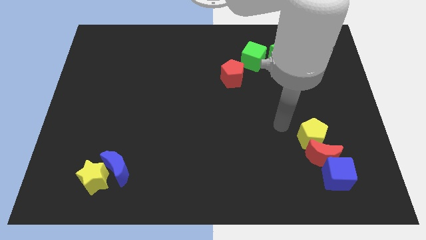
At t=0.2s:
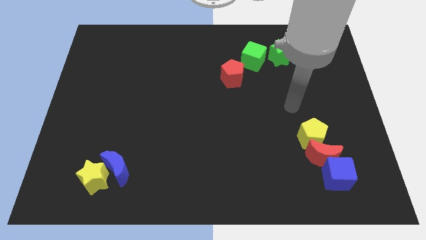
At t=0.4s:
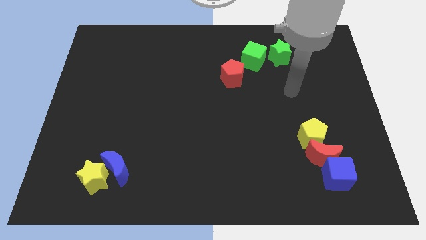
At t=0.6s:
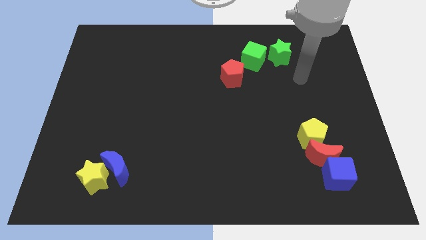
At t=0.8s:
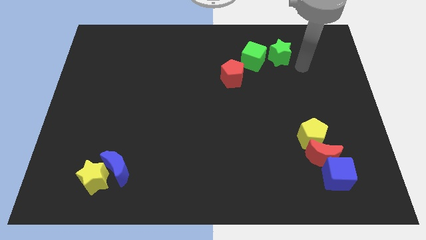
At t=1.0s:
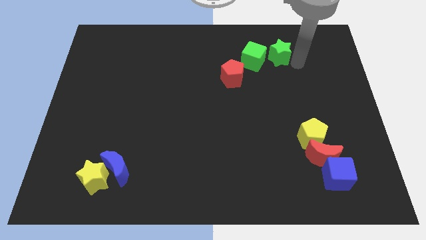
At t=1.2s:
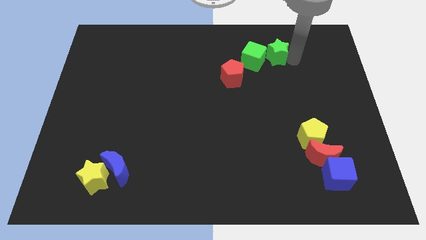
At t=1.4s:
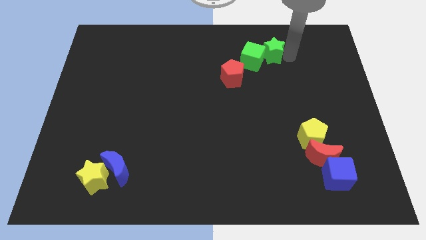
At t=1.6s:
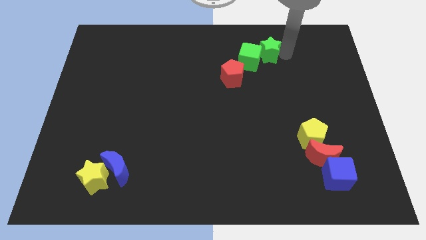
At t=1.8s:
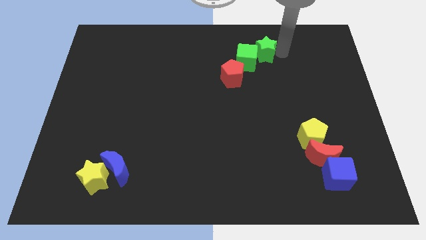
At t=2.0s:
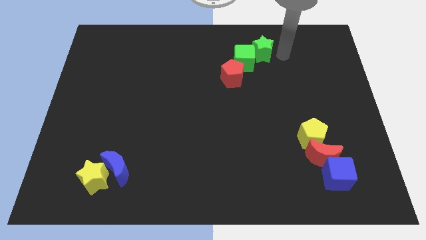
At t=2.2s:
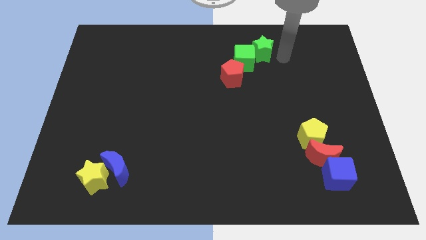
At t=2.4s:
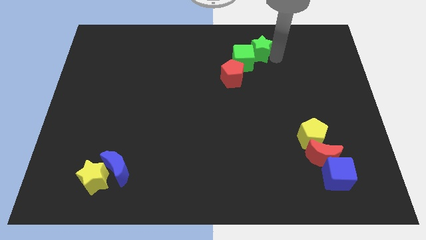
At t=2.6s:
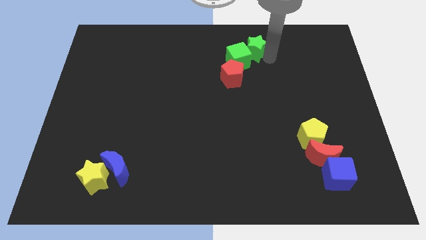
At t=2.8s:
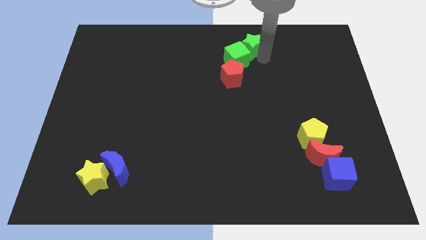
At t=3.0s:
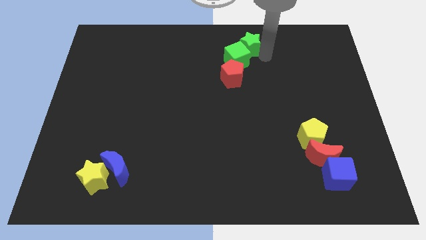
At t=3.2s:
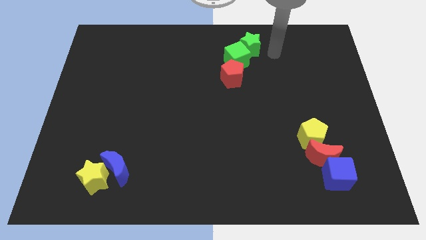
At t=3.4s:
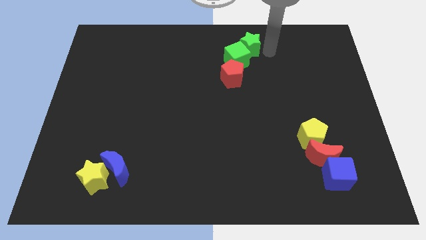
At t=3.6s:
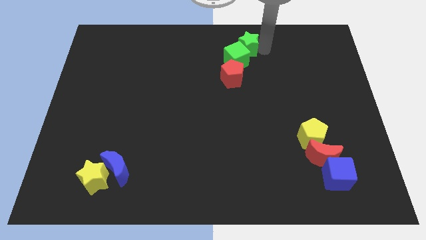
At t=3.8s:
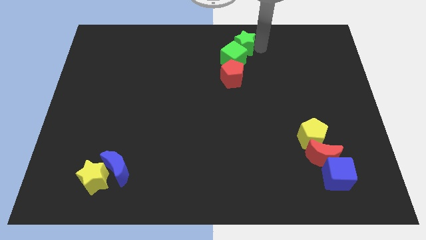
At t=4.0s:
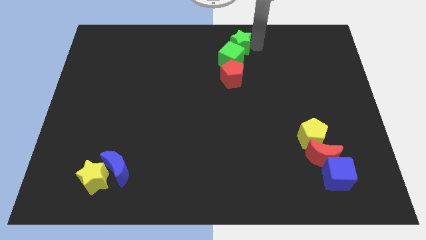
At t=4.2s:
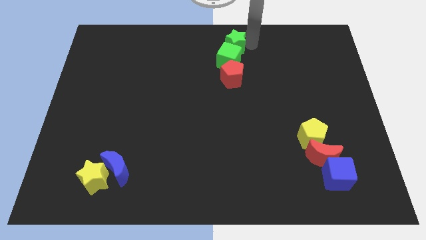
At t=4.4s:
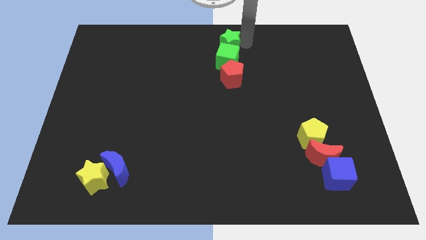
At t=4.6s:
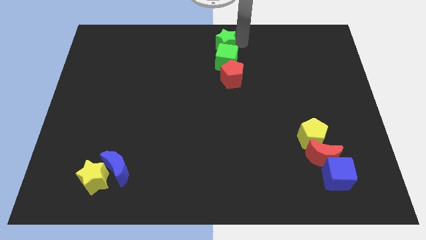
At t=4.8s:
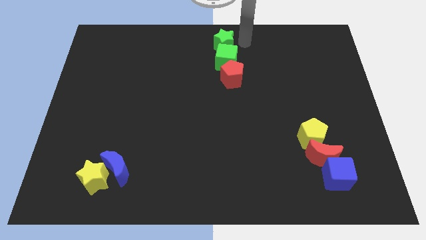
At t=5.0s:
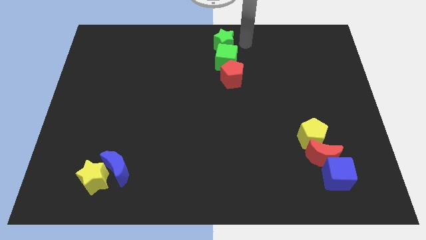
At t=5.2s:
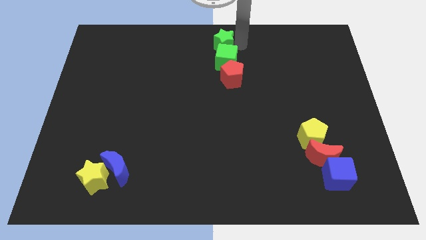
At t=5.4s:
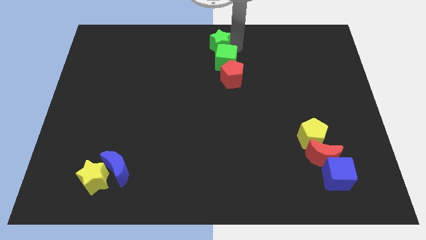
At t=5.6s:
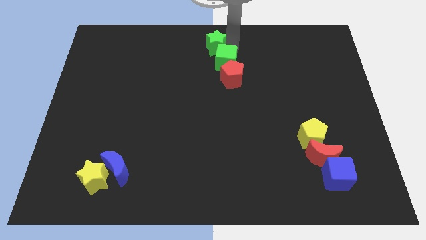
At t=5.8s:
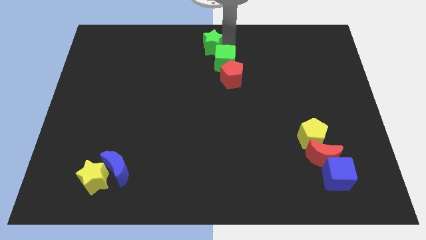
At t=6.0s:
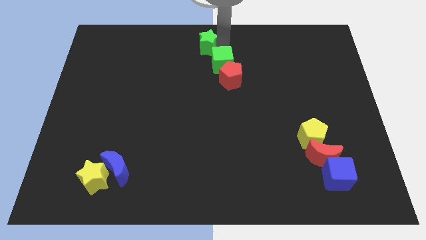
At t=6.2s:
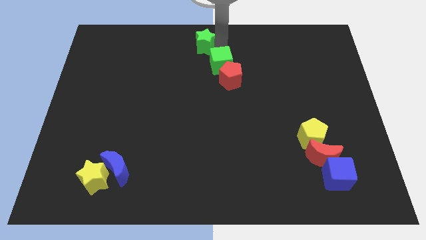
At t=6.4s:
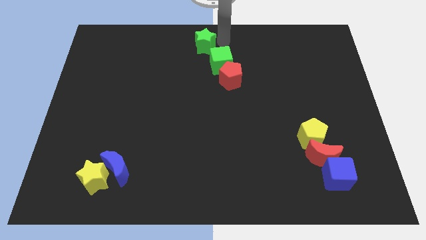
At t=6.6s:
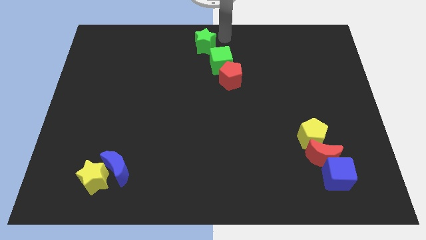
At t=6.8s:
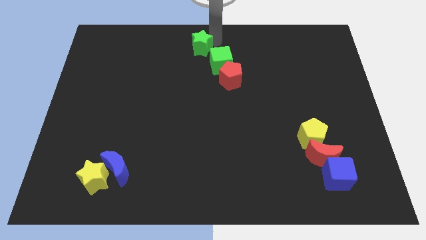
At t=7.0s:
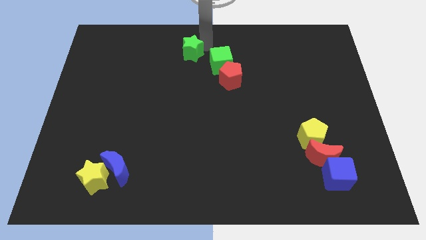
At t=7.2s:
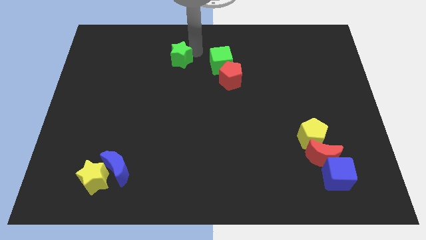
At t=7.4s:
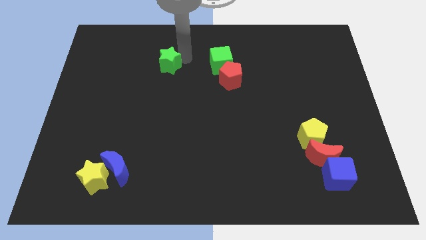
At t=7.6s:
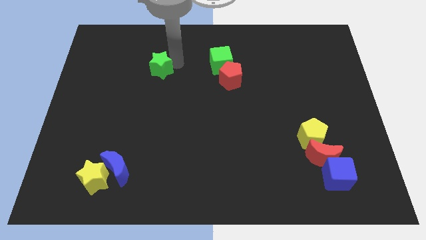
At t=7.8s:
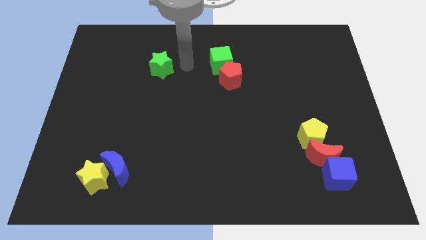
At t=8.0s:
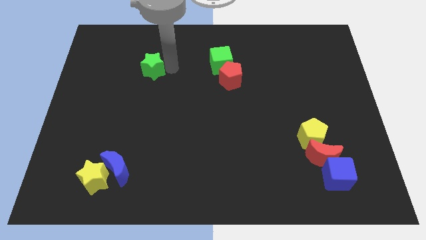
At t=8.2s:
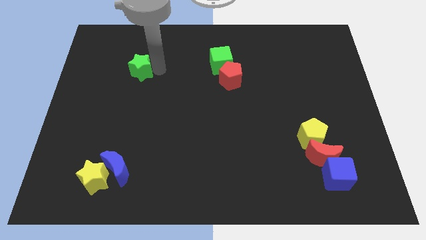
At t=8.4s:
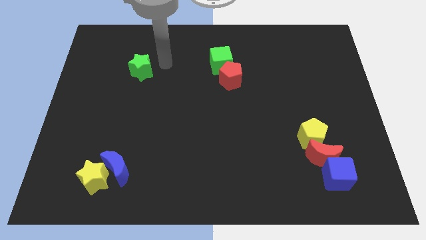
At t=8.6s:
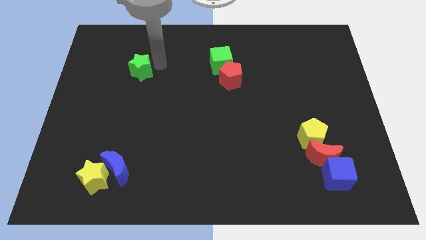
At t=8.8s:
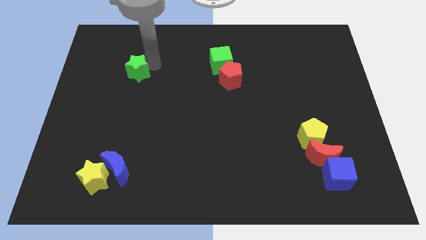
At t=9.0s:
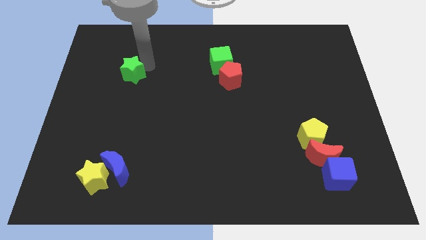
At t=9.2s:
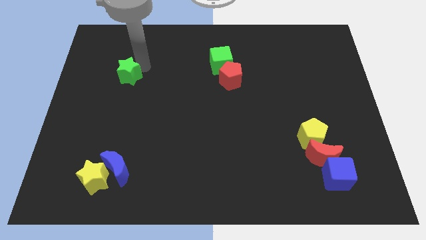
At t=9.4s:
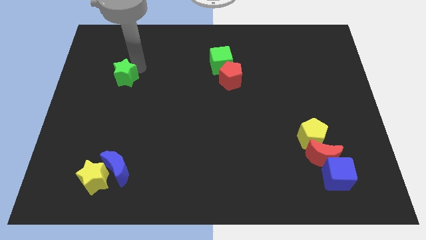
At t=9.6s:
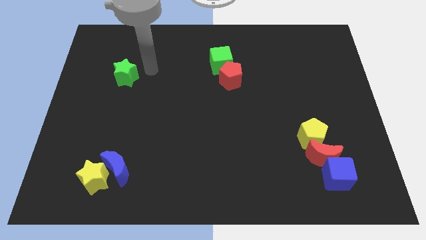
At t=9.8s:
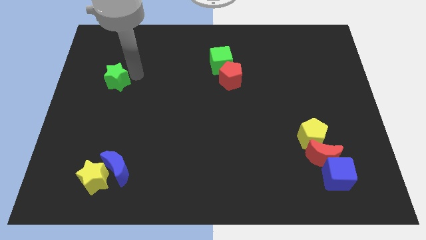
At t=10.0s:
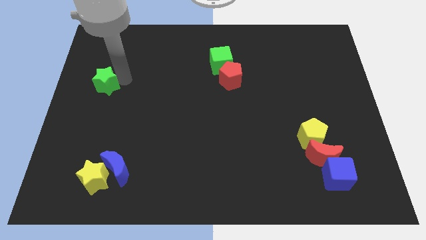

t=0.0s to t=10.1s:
put the green star to the left side

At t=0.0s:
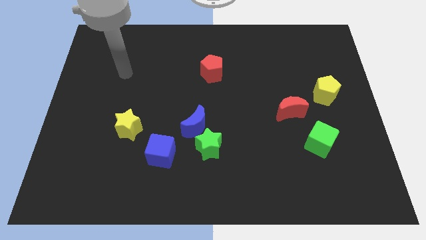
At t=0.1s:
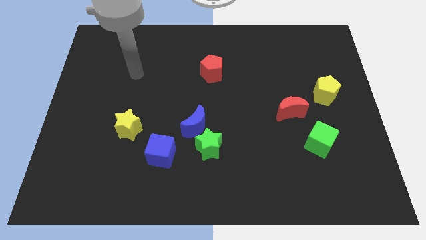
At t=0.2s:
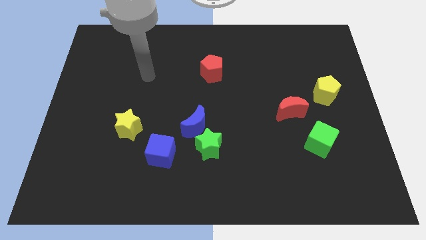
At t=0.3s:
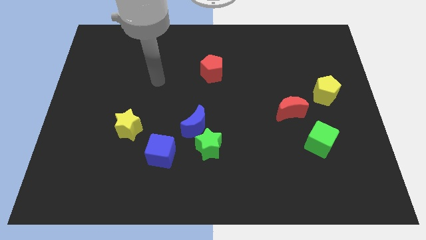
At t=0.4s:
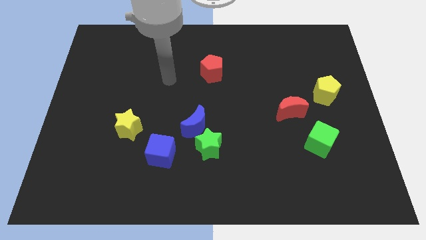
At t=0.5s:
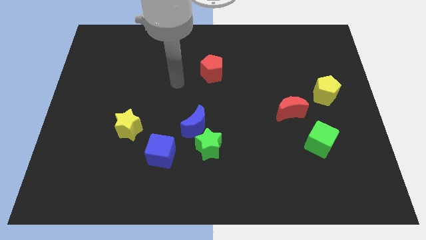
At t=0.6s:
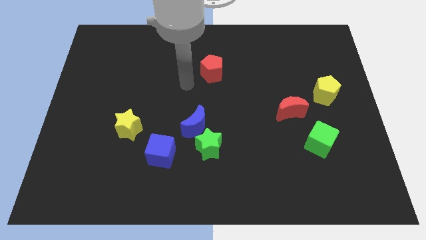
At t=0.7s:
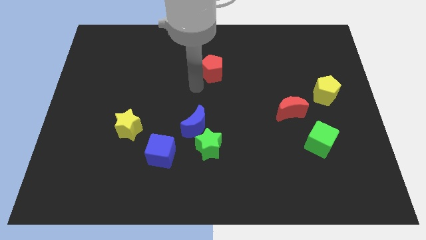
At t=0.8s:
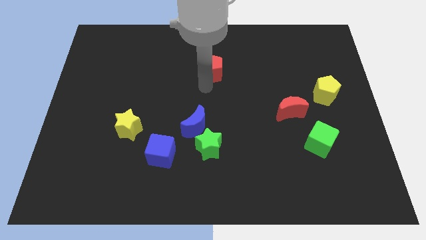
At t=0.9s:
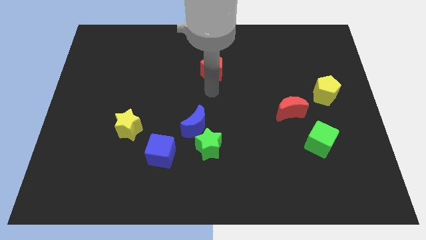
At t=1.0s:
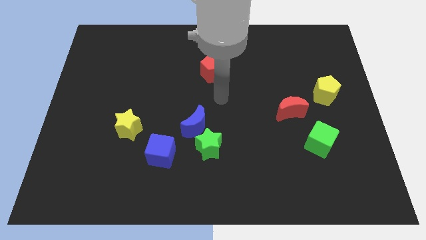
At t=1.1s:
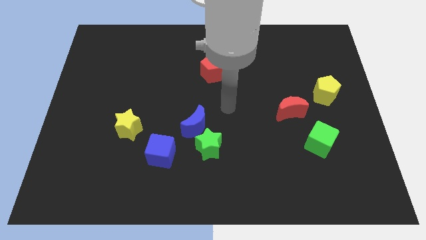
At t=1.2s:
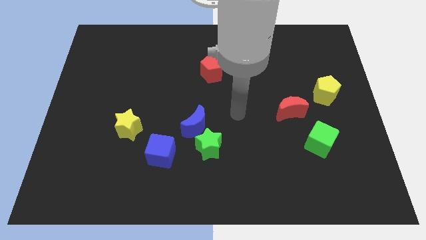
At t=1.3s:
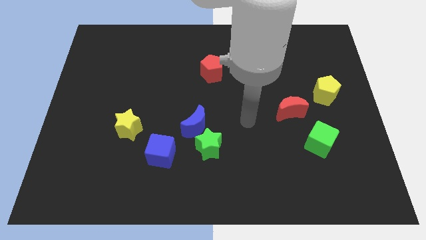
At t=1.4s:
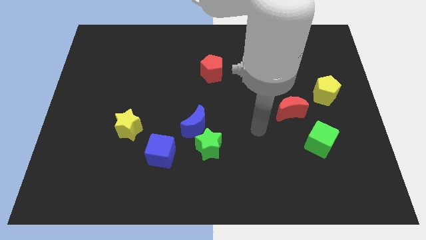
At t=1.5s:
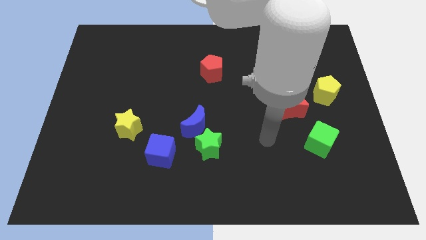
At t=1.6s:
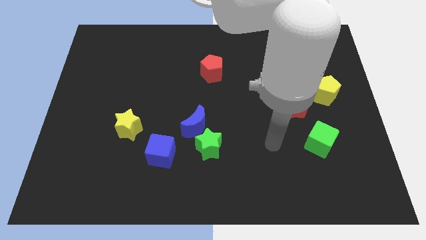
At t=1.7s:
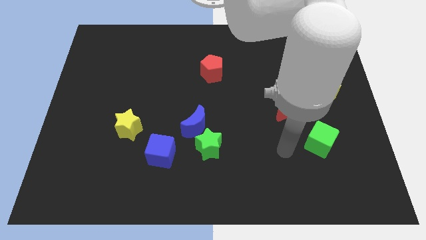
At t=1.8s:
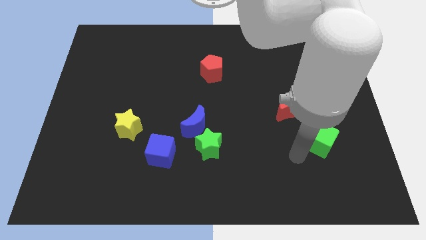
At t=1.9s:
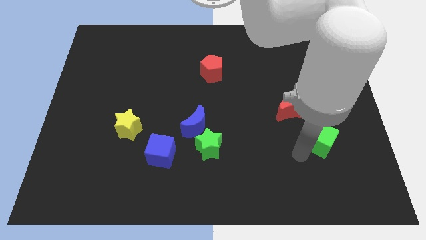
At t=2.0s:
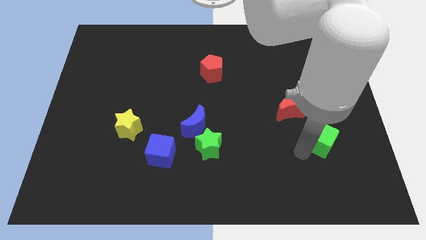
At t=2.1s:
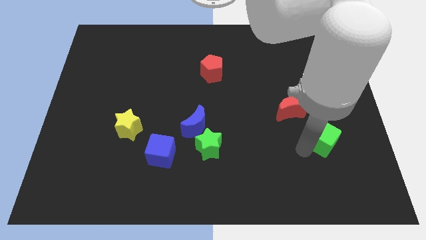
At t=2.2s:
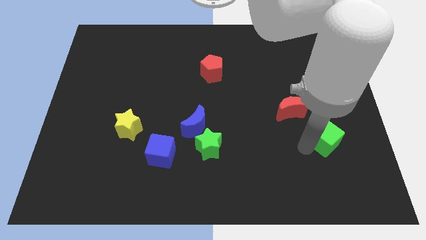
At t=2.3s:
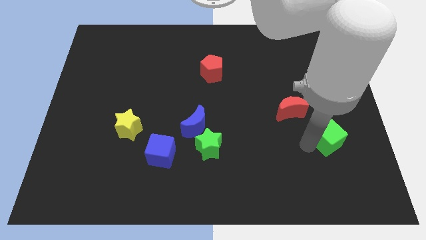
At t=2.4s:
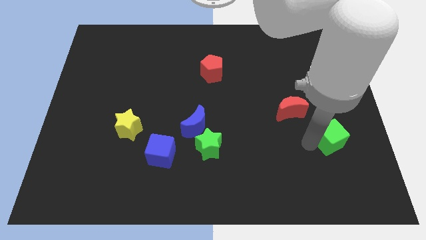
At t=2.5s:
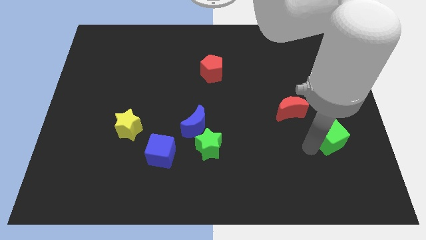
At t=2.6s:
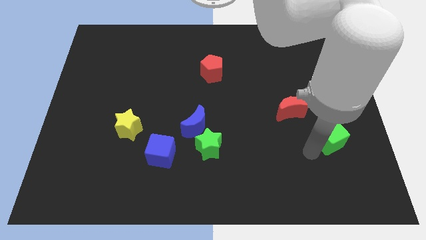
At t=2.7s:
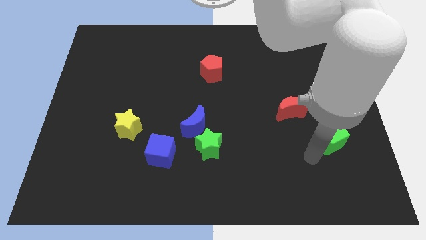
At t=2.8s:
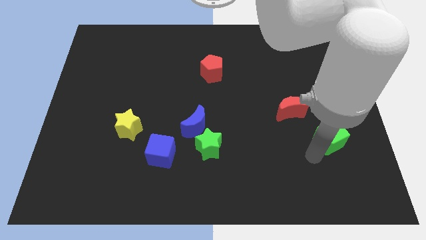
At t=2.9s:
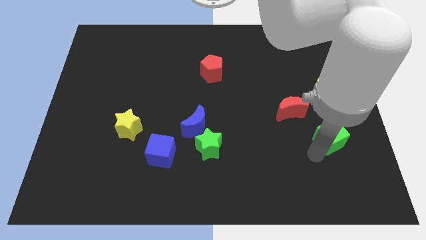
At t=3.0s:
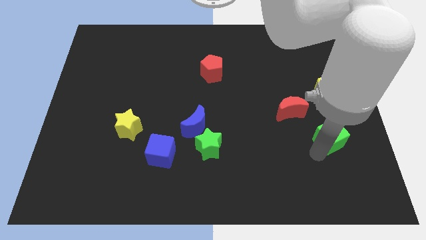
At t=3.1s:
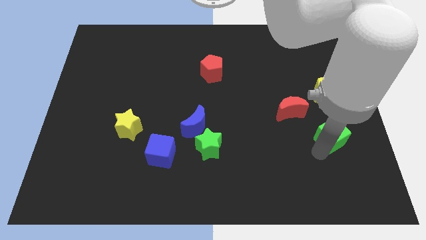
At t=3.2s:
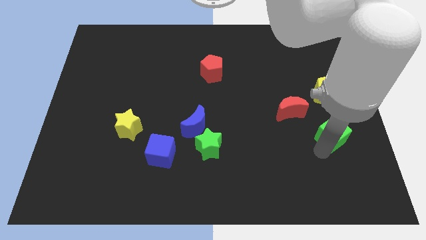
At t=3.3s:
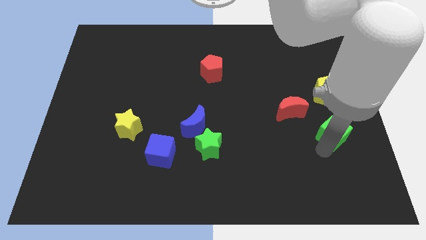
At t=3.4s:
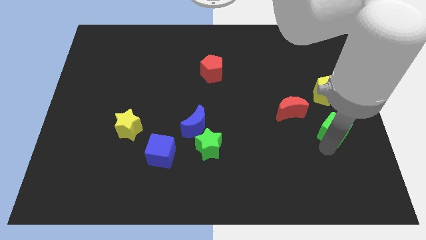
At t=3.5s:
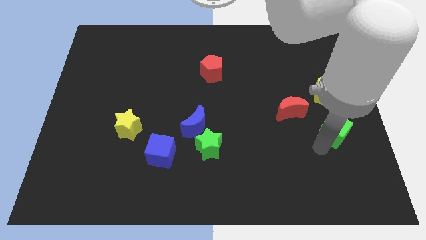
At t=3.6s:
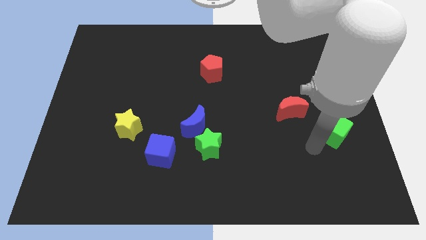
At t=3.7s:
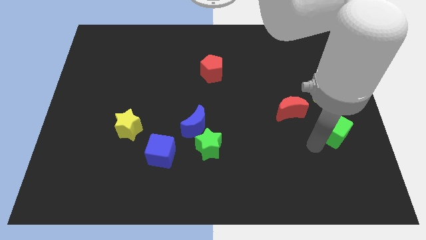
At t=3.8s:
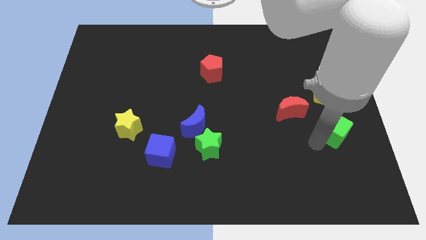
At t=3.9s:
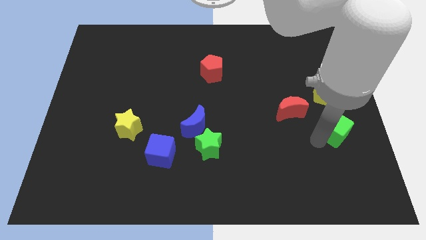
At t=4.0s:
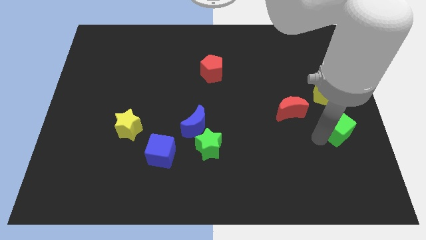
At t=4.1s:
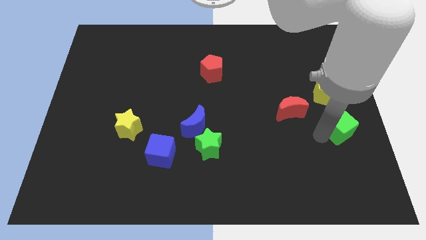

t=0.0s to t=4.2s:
move the green cube to the center right
